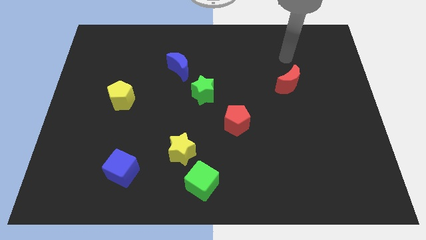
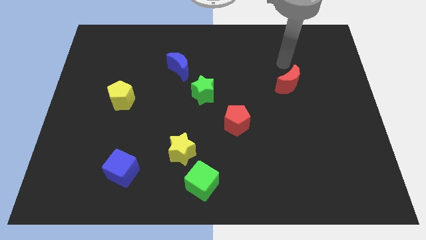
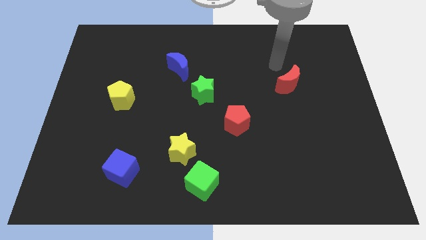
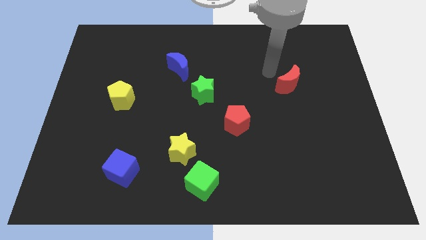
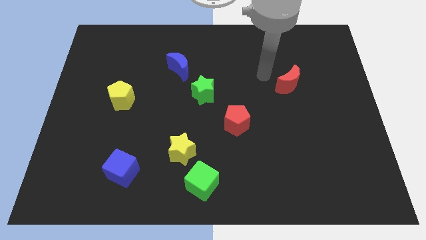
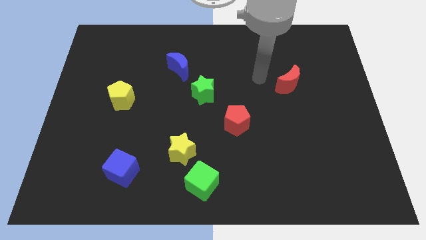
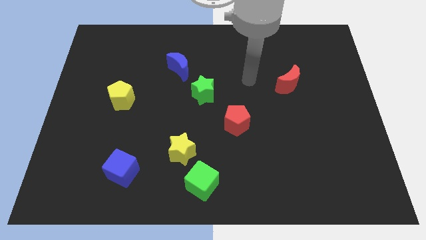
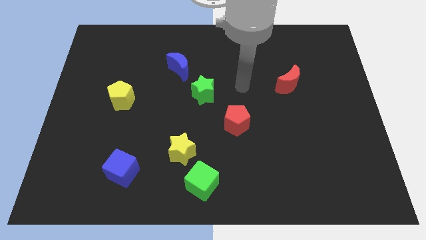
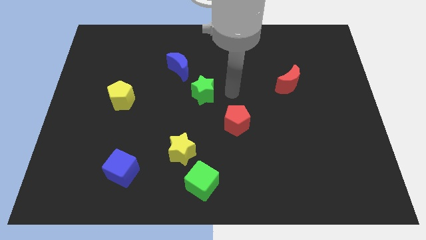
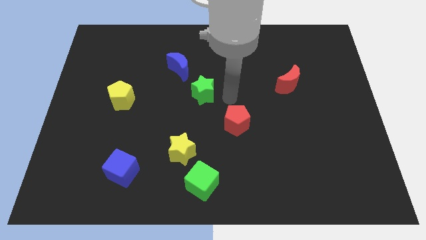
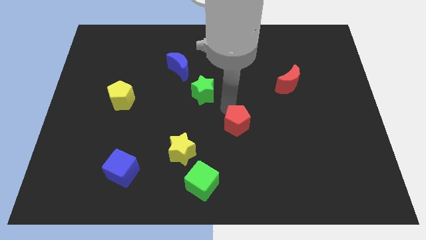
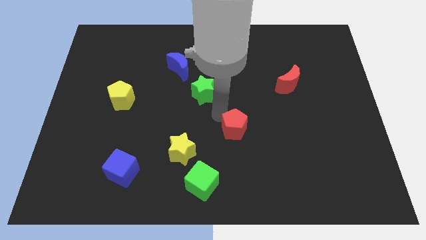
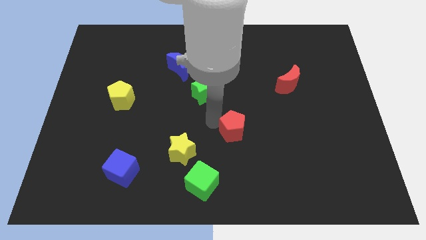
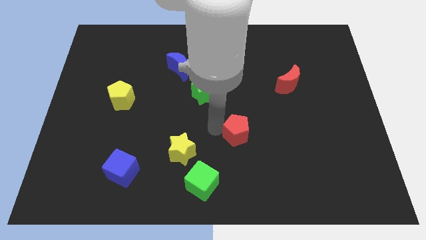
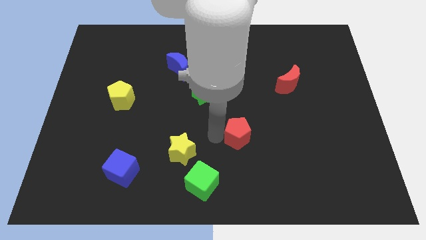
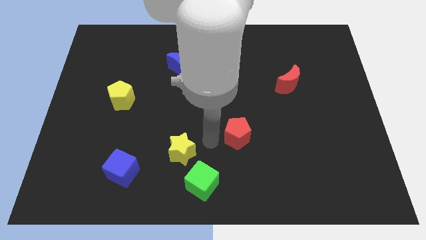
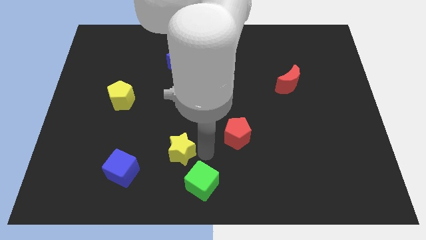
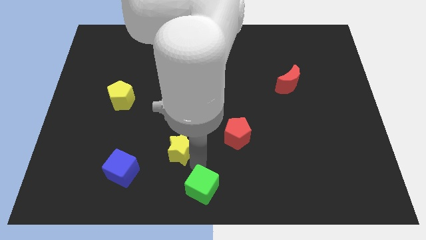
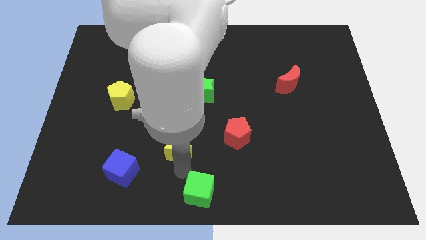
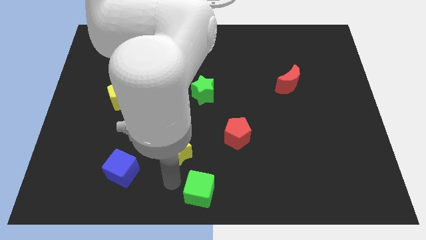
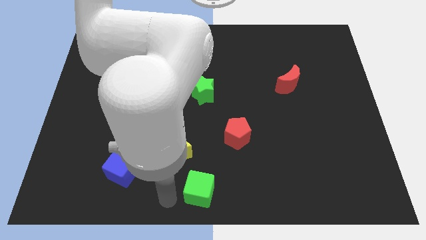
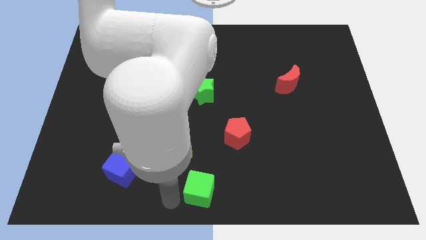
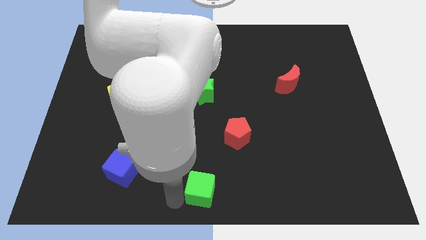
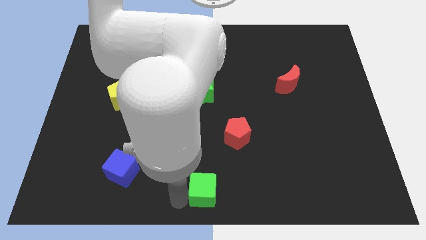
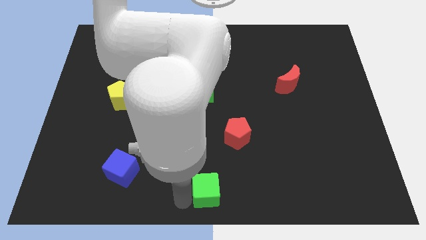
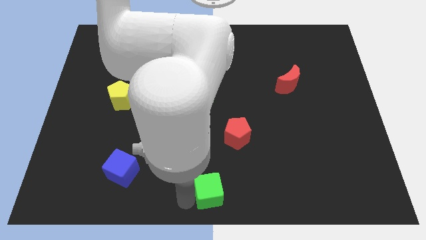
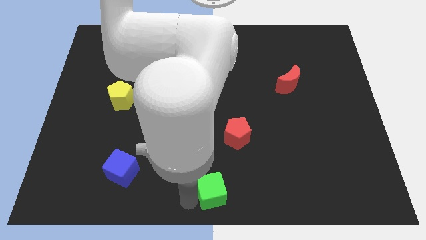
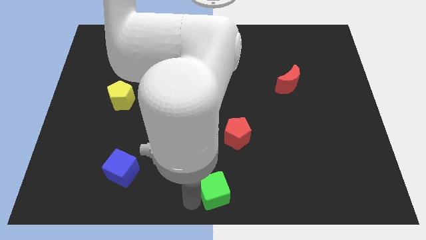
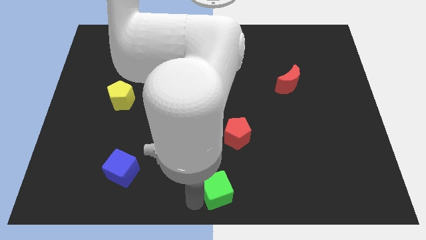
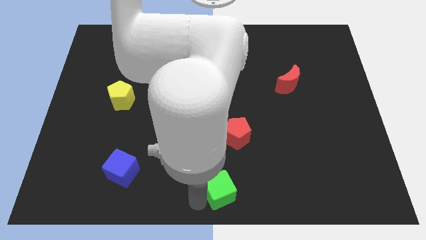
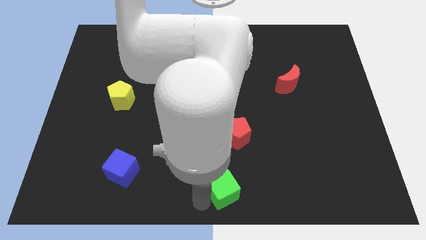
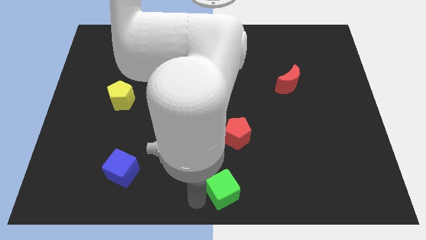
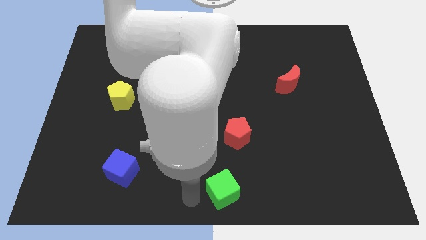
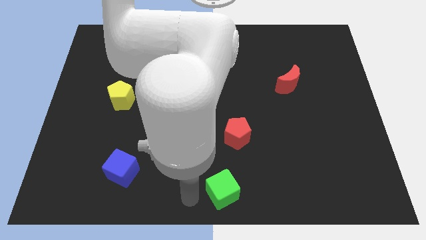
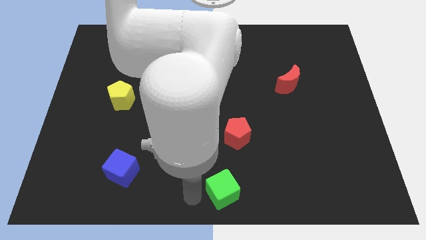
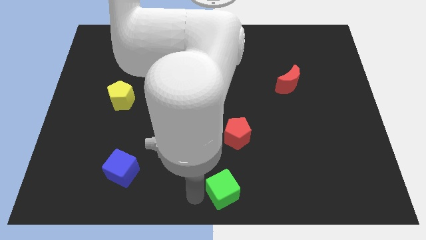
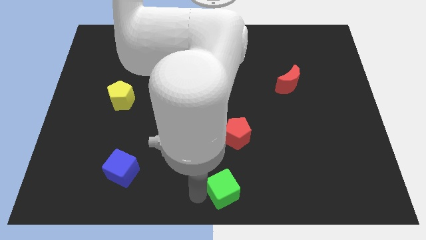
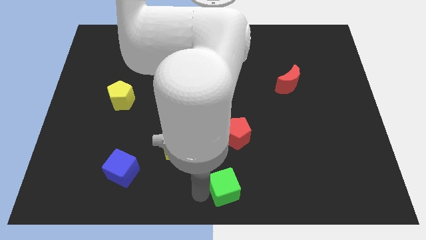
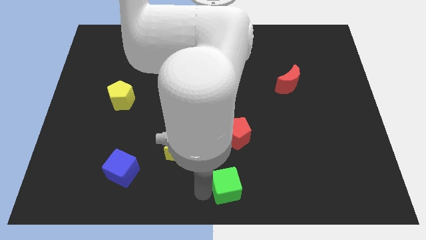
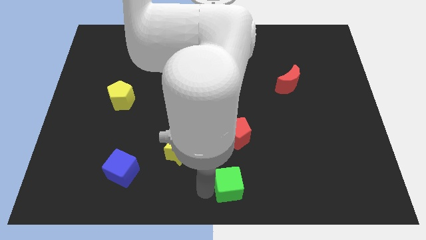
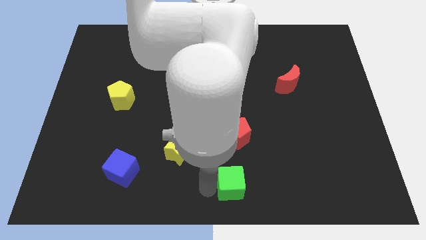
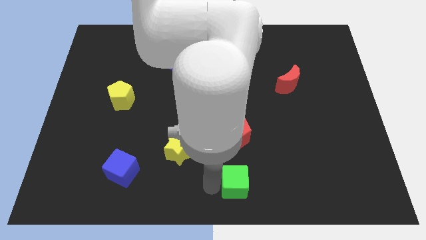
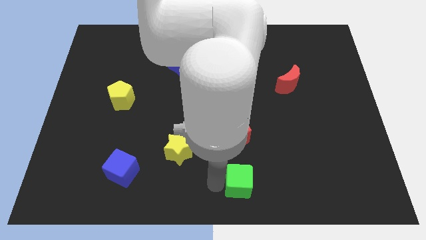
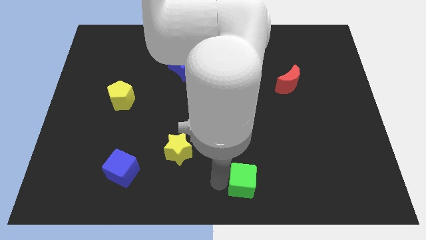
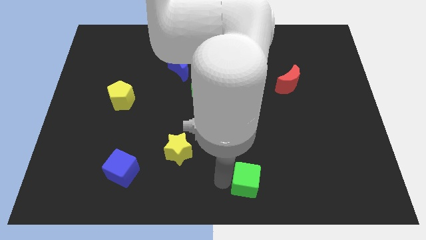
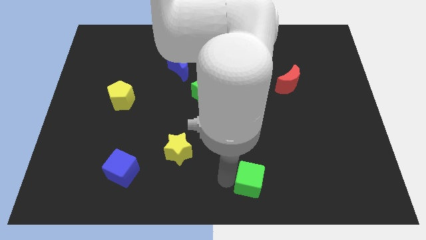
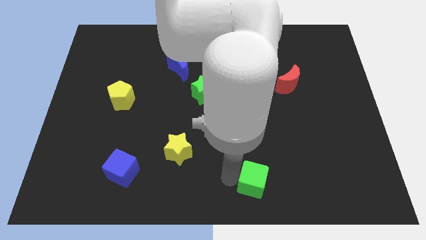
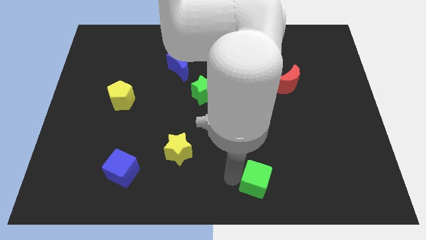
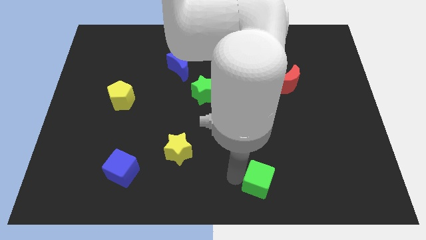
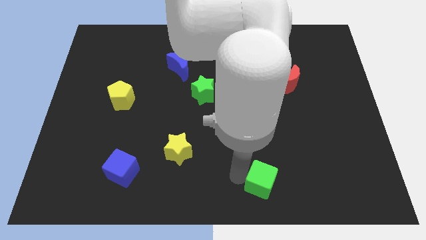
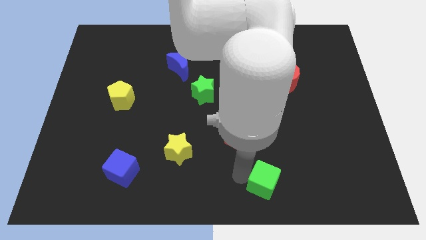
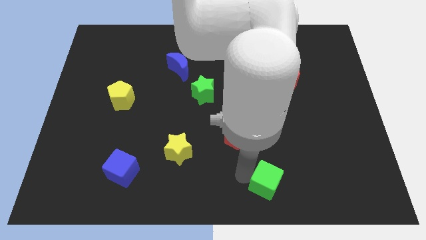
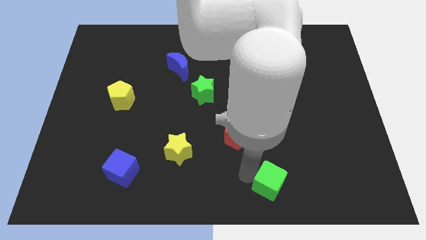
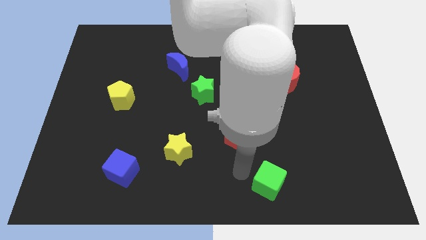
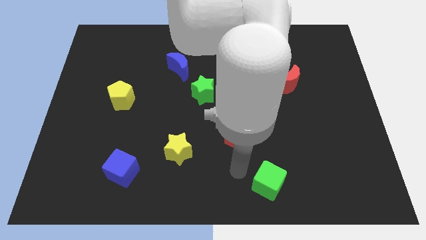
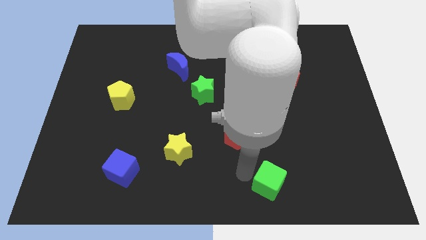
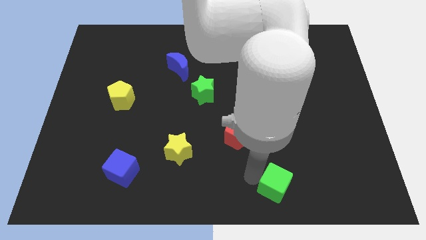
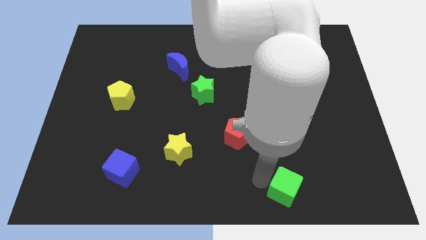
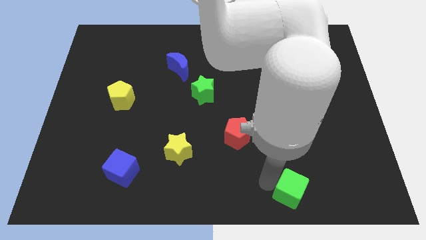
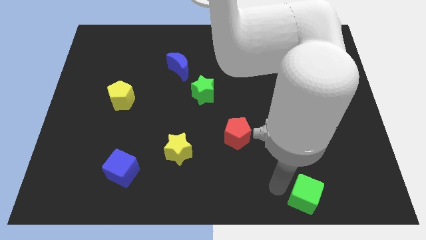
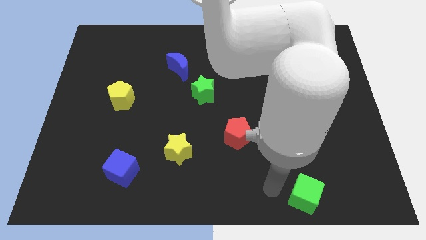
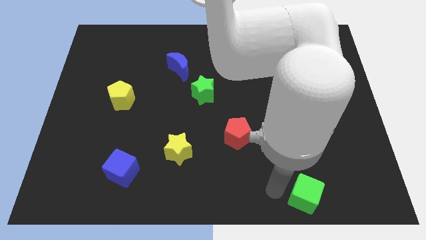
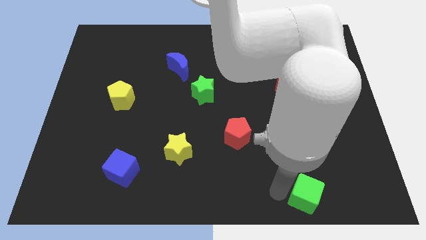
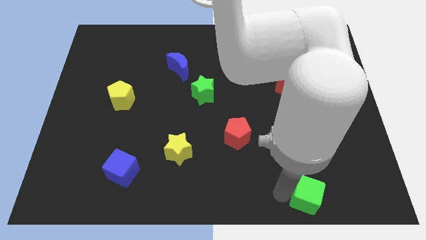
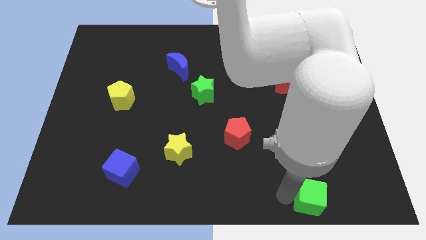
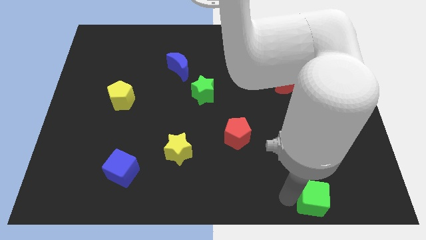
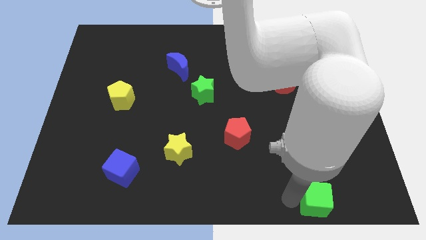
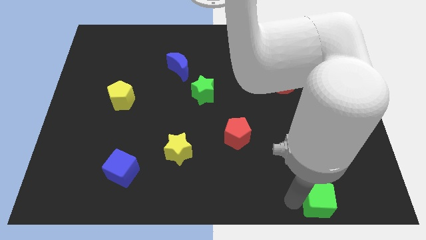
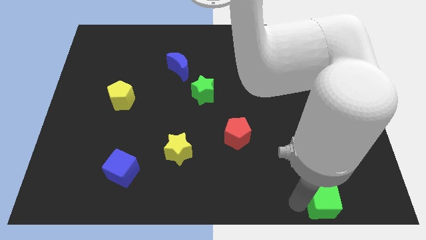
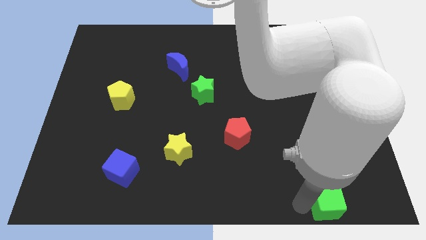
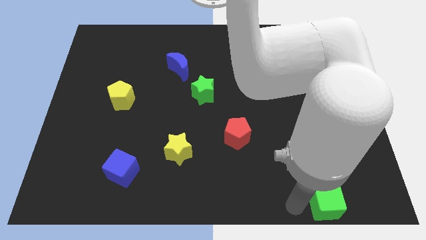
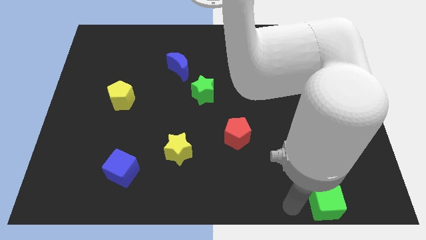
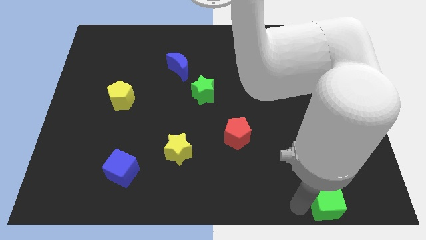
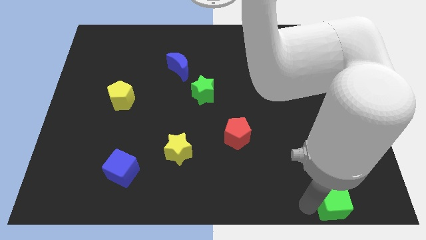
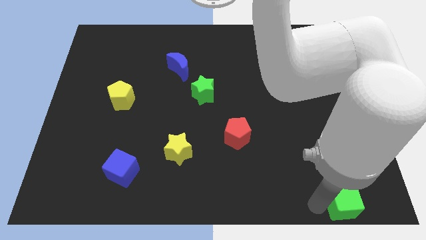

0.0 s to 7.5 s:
move the green cube to the lower right corner
